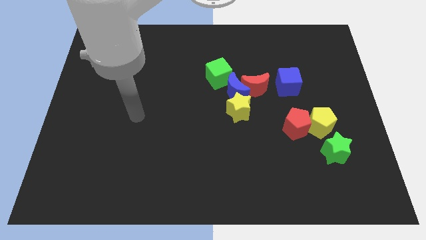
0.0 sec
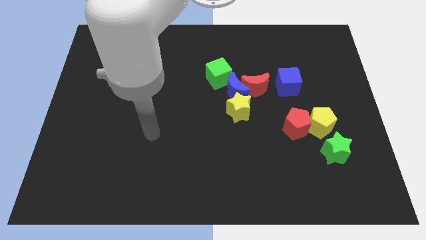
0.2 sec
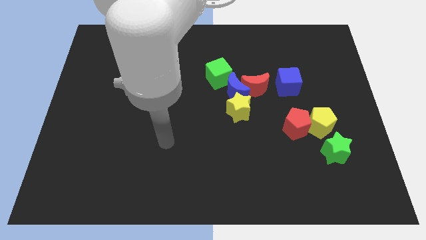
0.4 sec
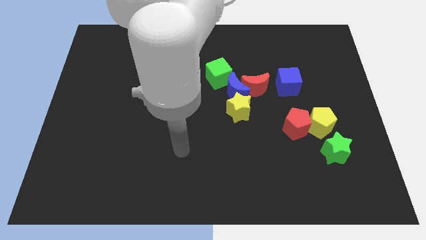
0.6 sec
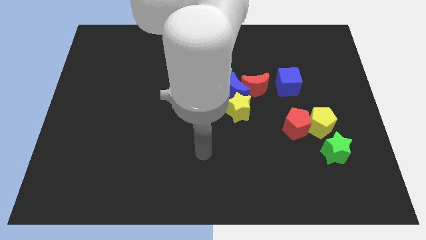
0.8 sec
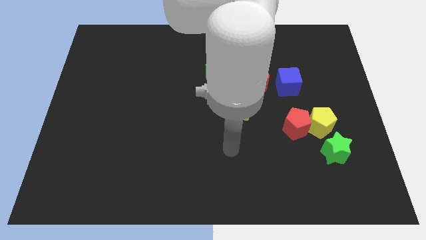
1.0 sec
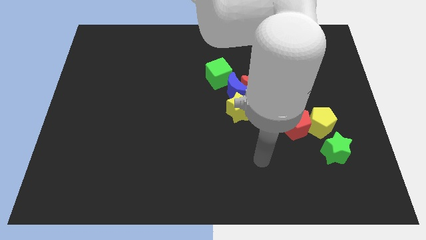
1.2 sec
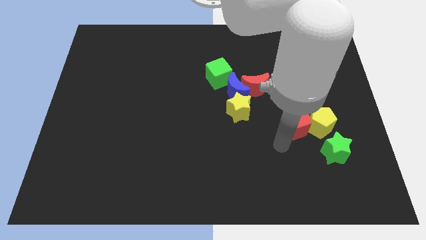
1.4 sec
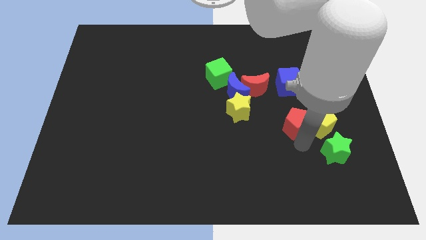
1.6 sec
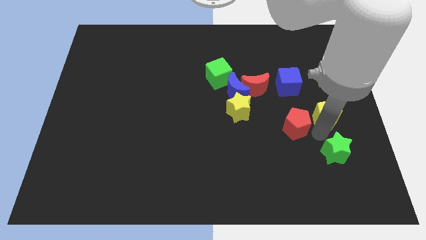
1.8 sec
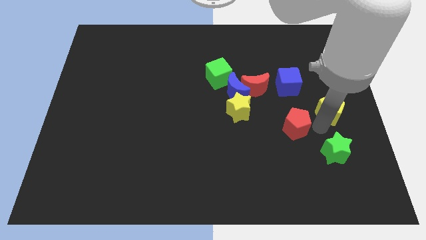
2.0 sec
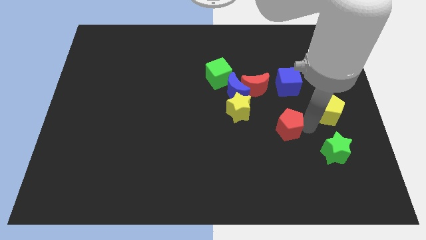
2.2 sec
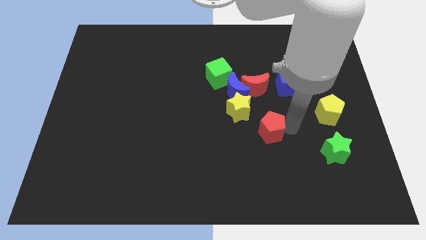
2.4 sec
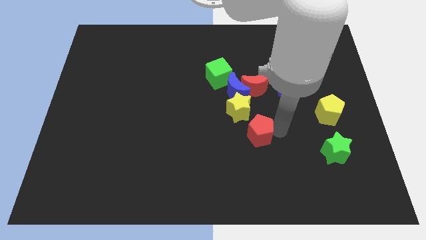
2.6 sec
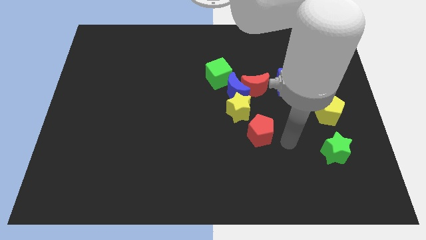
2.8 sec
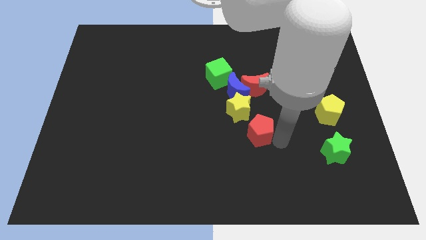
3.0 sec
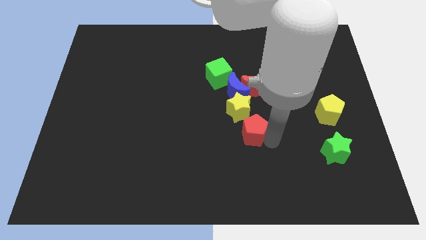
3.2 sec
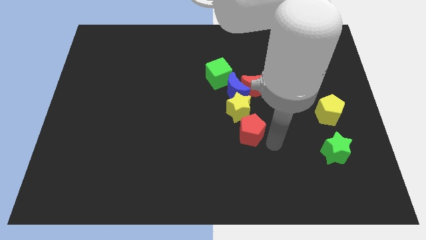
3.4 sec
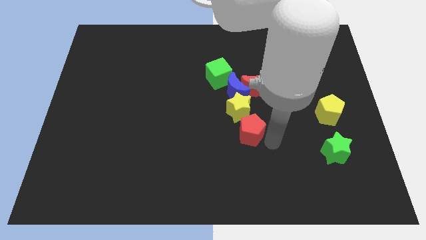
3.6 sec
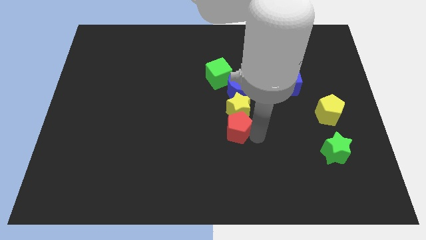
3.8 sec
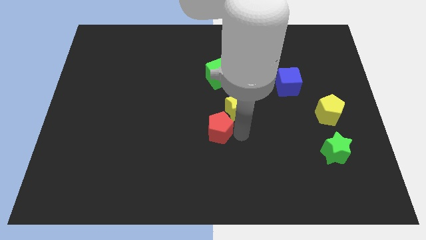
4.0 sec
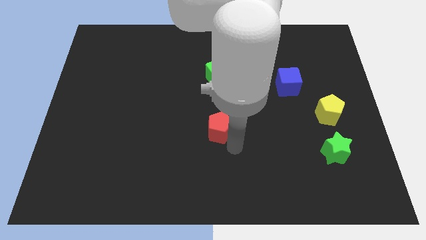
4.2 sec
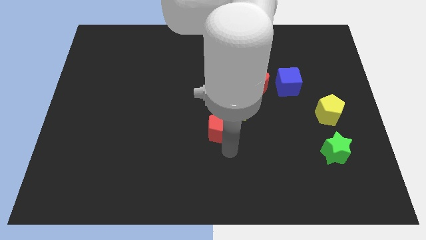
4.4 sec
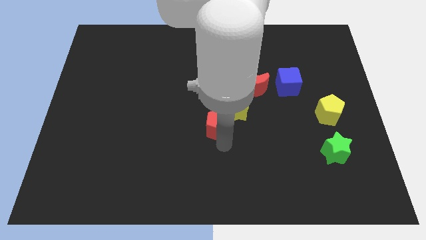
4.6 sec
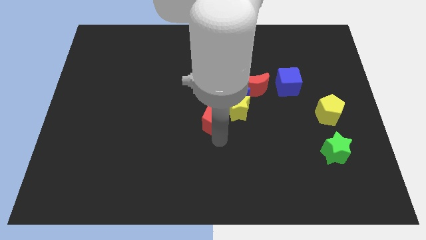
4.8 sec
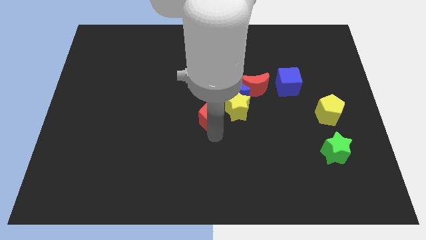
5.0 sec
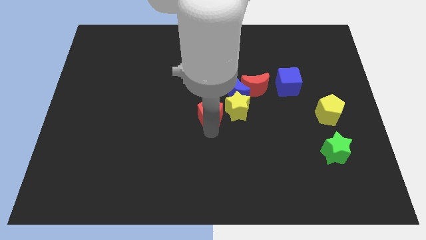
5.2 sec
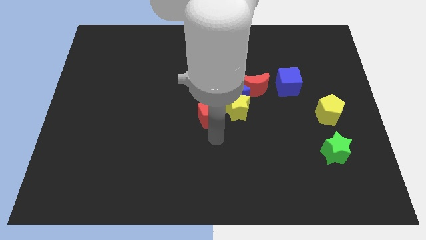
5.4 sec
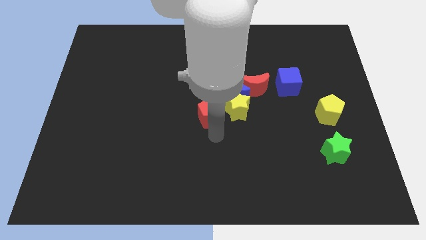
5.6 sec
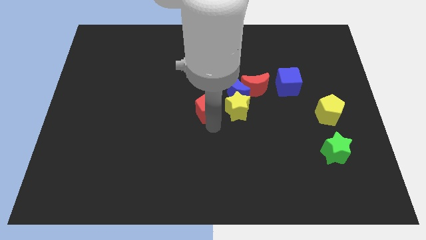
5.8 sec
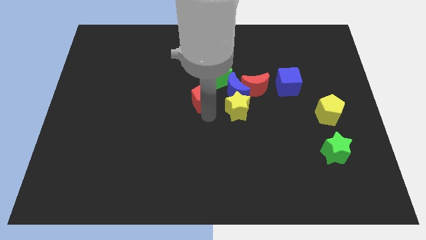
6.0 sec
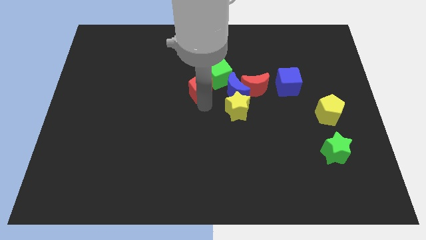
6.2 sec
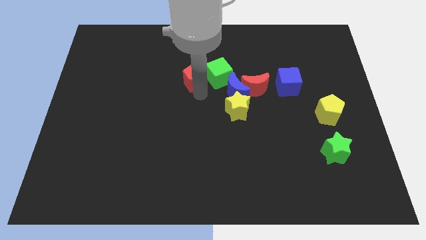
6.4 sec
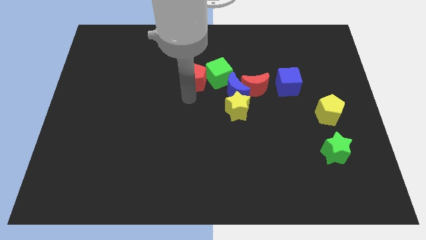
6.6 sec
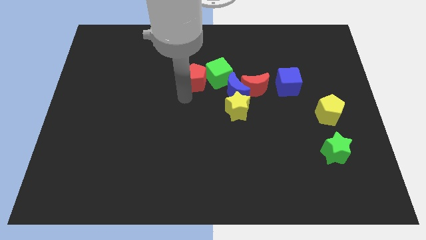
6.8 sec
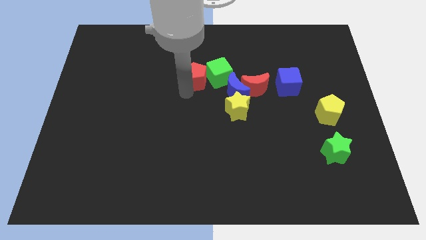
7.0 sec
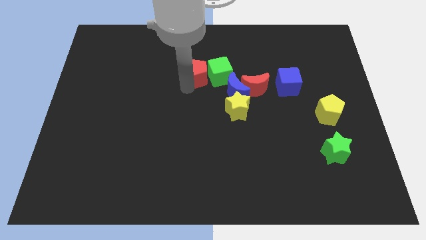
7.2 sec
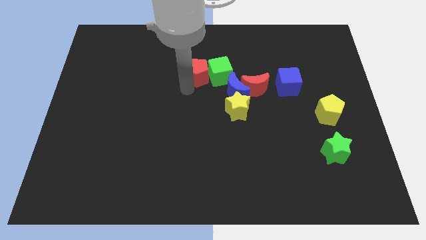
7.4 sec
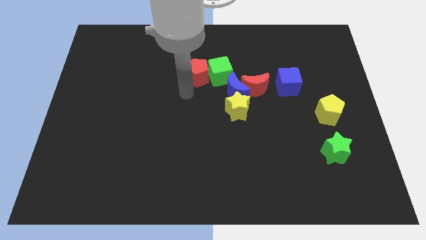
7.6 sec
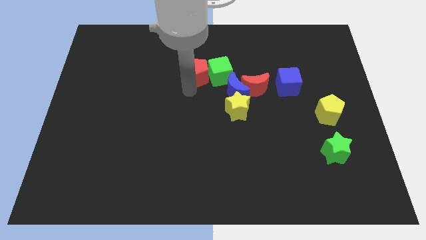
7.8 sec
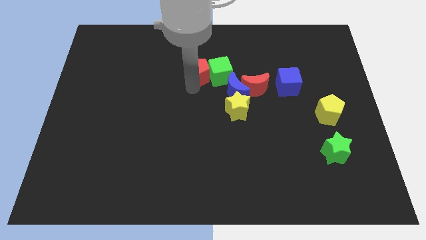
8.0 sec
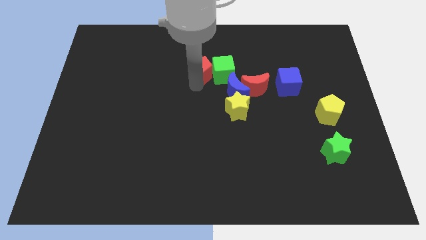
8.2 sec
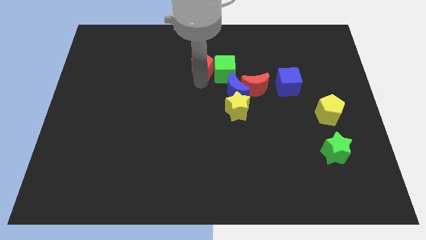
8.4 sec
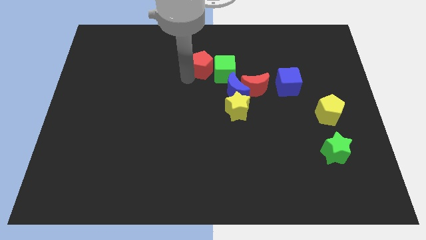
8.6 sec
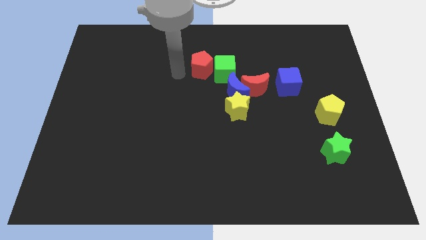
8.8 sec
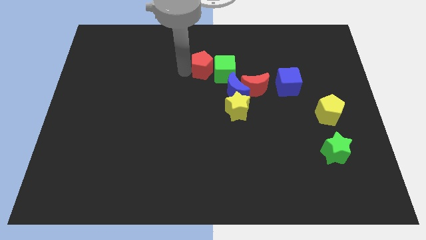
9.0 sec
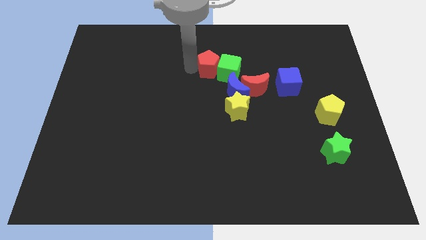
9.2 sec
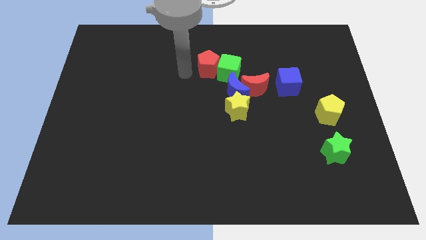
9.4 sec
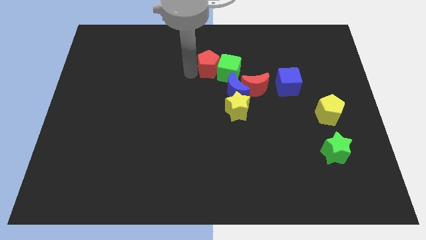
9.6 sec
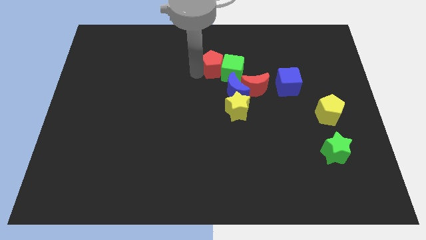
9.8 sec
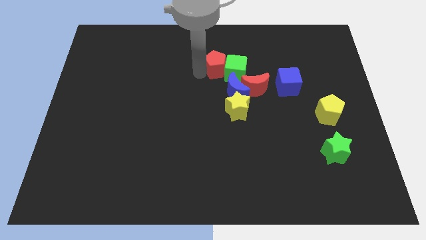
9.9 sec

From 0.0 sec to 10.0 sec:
push the red pentagon to the top of the blue moon

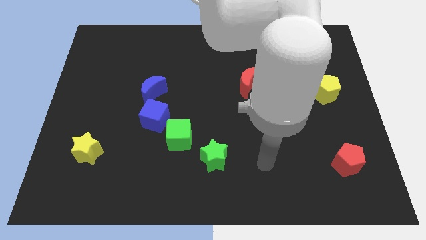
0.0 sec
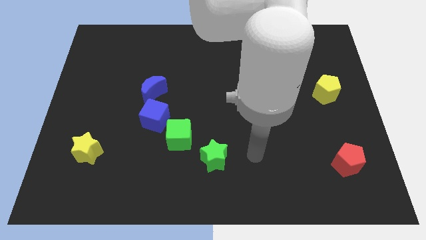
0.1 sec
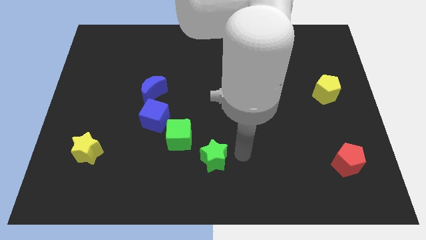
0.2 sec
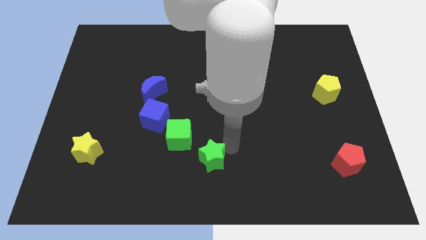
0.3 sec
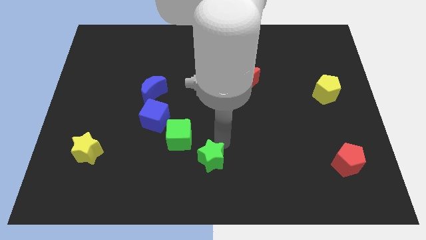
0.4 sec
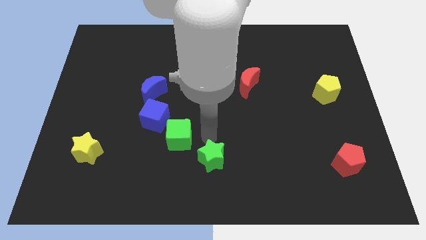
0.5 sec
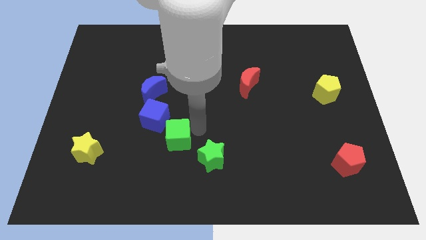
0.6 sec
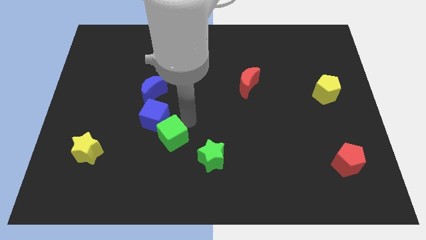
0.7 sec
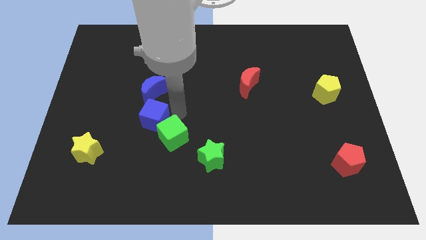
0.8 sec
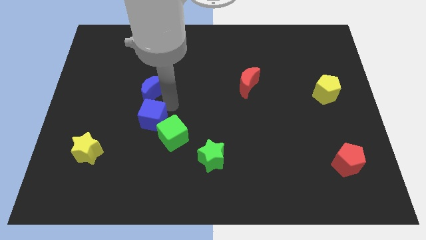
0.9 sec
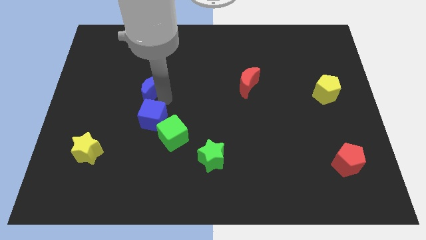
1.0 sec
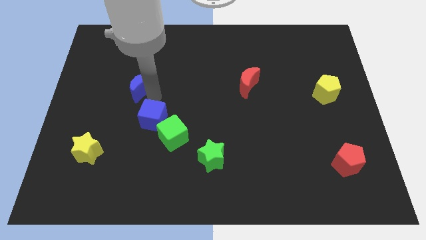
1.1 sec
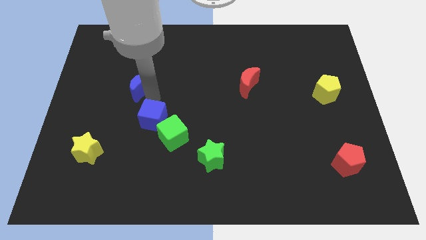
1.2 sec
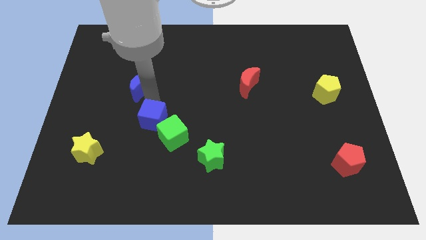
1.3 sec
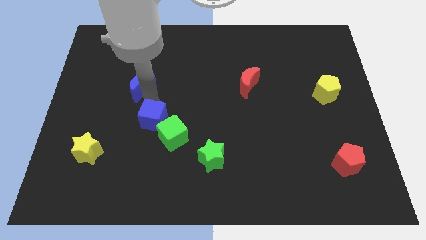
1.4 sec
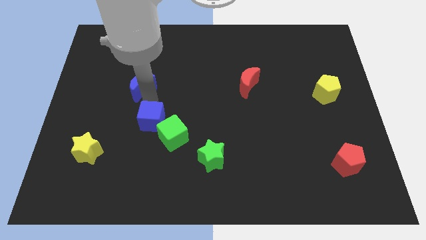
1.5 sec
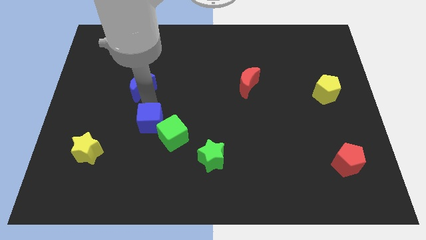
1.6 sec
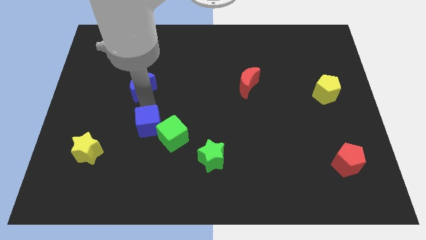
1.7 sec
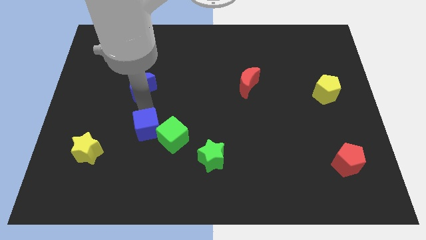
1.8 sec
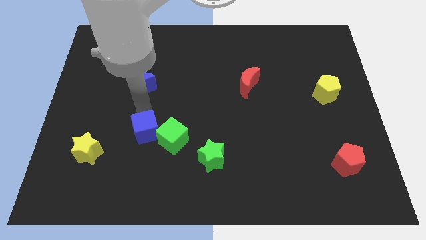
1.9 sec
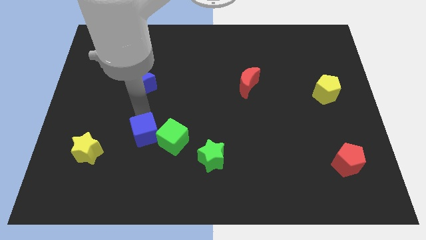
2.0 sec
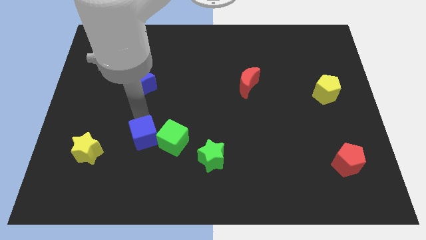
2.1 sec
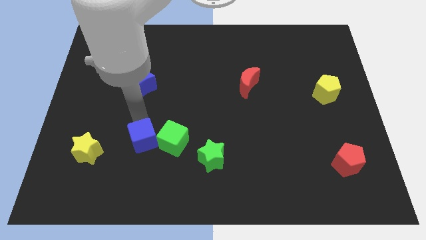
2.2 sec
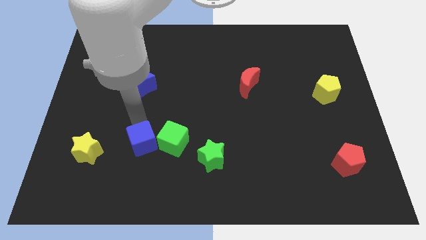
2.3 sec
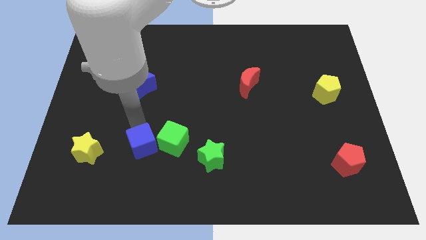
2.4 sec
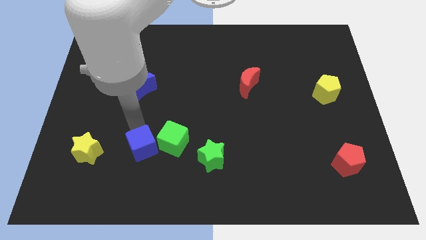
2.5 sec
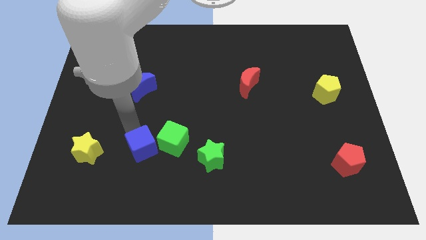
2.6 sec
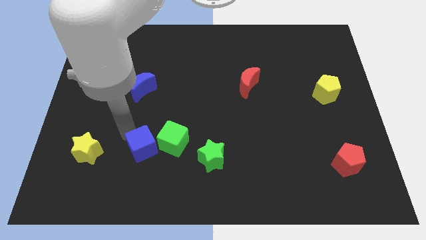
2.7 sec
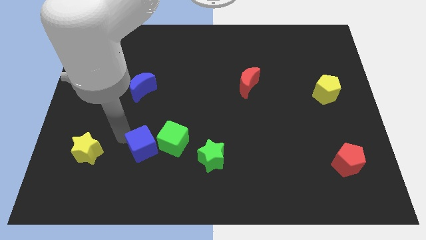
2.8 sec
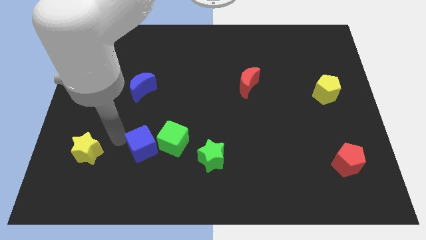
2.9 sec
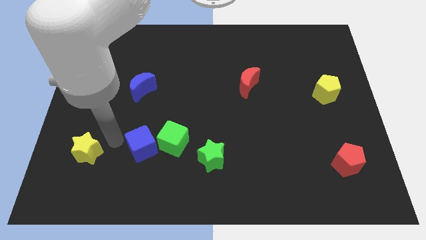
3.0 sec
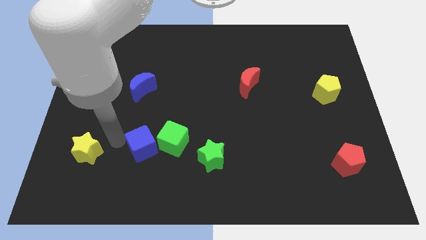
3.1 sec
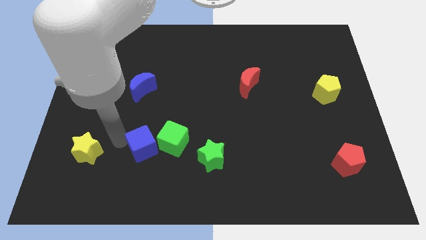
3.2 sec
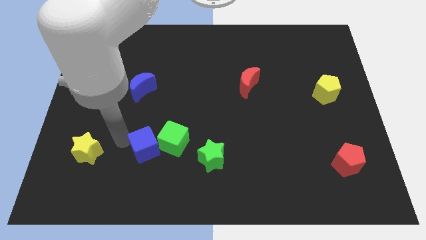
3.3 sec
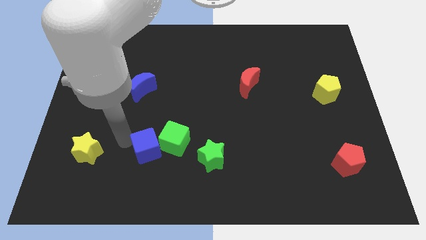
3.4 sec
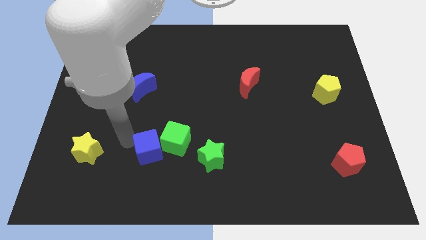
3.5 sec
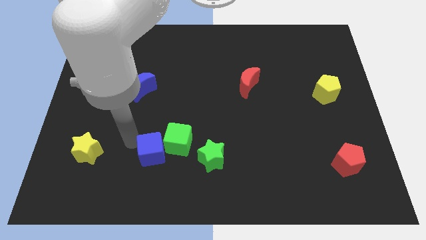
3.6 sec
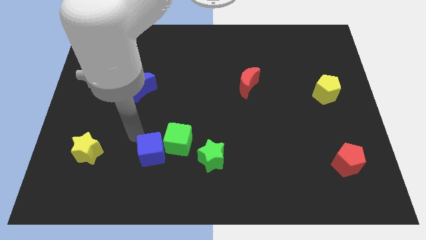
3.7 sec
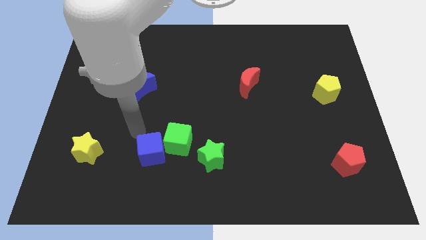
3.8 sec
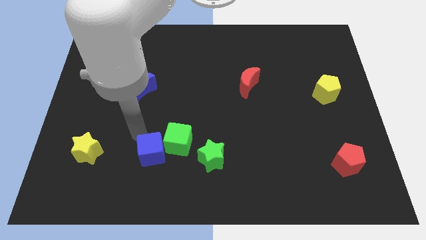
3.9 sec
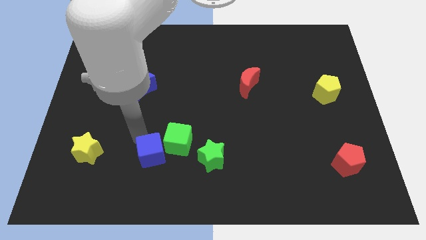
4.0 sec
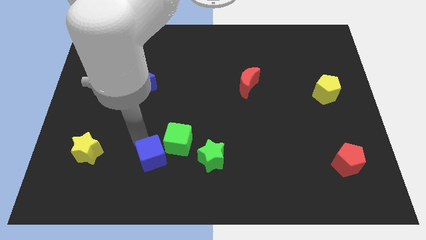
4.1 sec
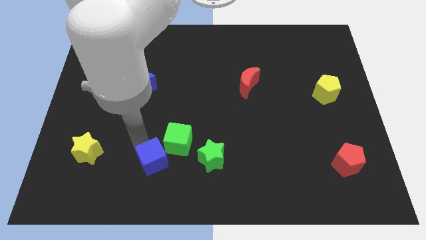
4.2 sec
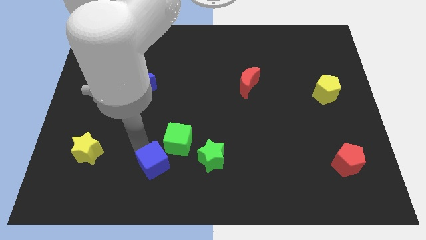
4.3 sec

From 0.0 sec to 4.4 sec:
move the blue cube to the bottom of the green cube
